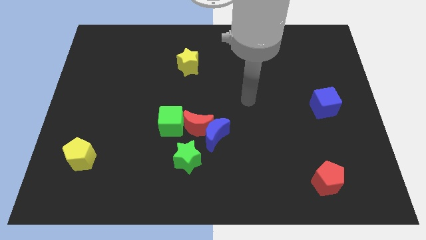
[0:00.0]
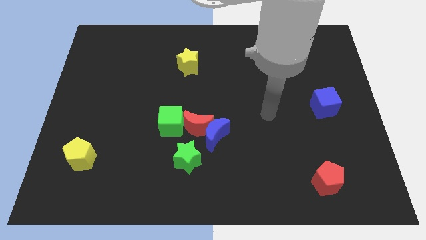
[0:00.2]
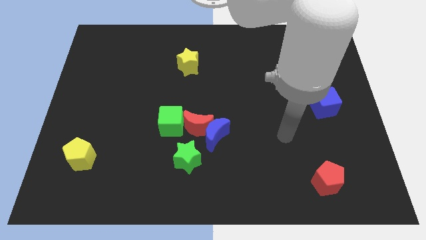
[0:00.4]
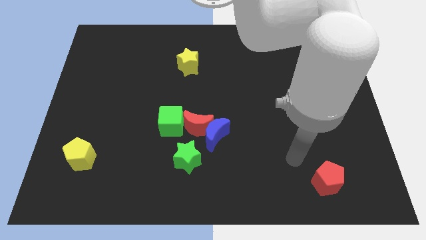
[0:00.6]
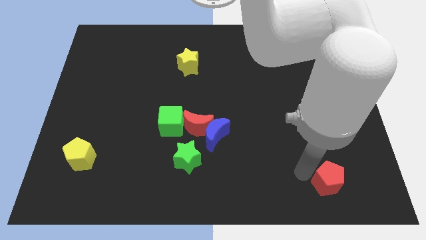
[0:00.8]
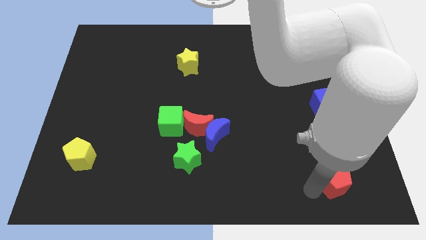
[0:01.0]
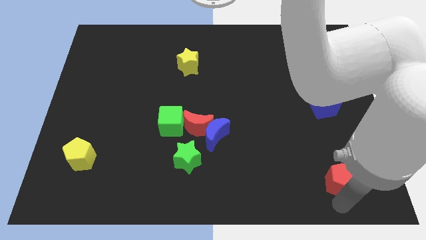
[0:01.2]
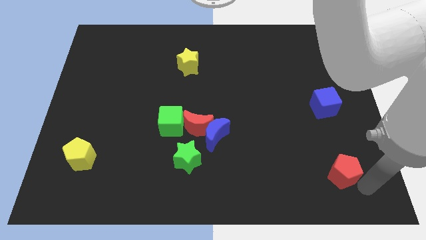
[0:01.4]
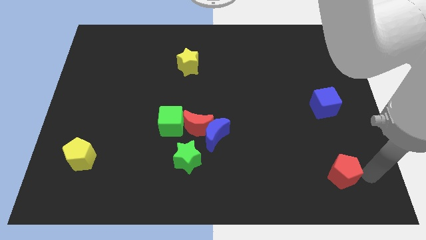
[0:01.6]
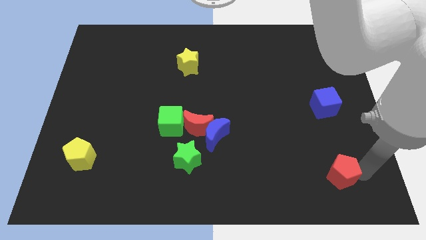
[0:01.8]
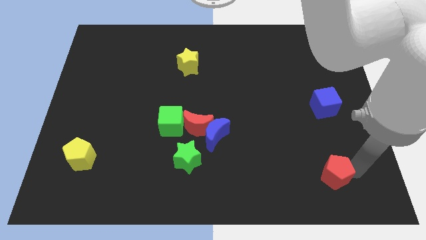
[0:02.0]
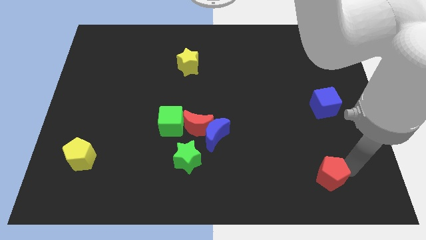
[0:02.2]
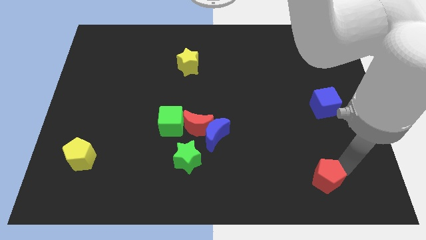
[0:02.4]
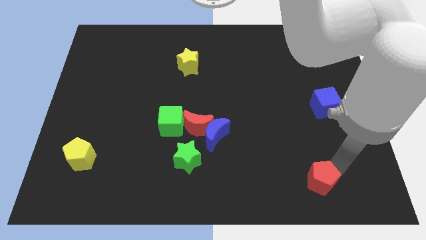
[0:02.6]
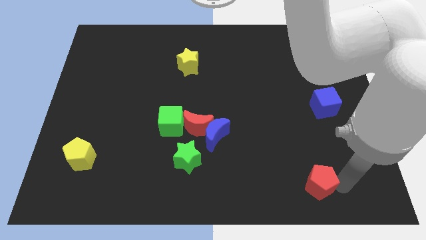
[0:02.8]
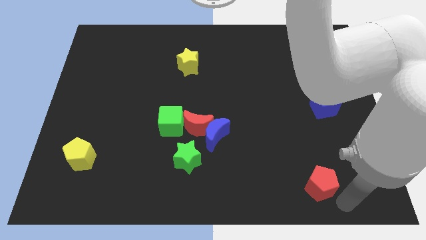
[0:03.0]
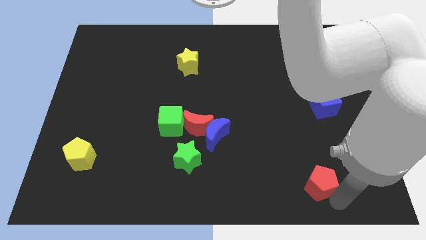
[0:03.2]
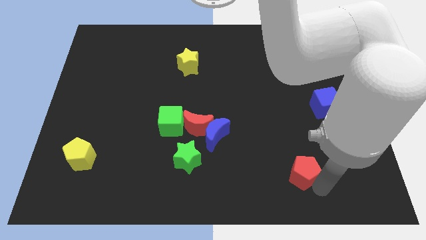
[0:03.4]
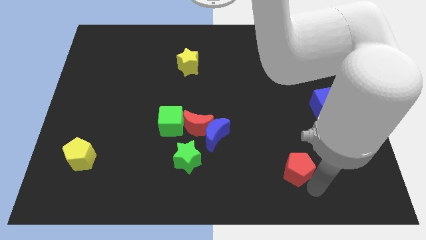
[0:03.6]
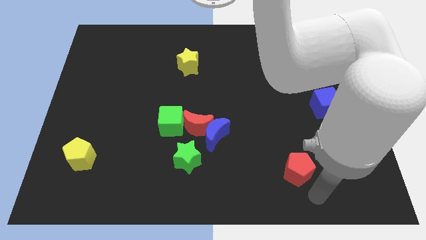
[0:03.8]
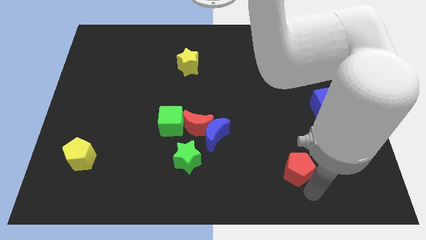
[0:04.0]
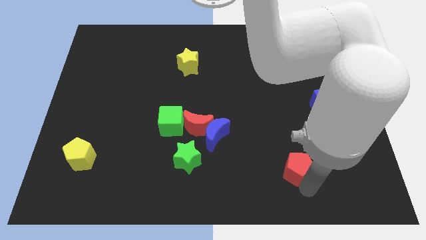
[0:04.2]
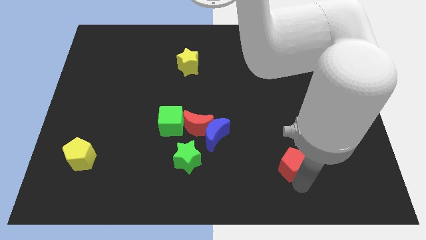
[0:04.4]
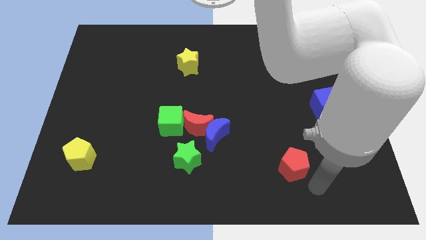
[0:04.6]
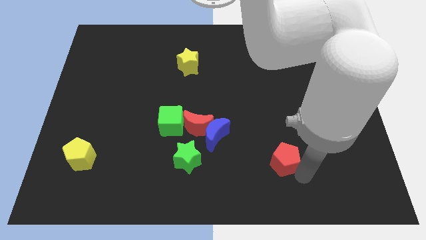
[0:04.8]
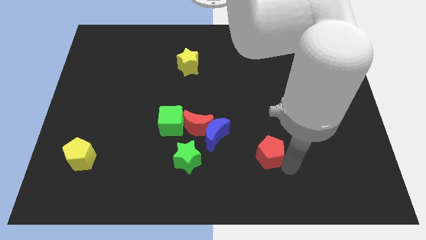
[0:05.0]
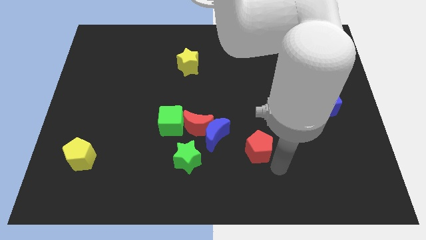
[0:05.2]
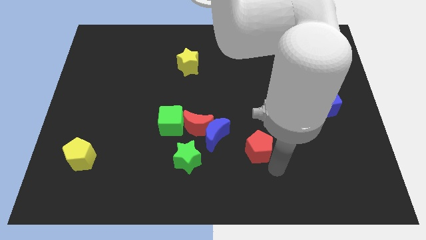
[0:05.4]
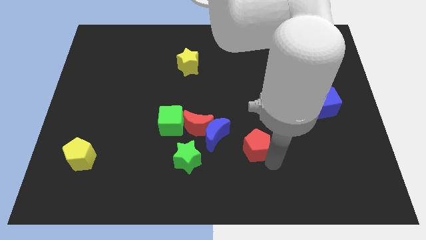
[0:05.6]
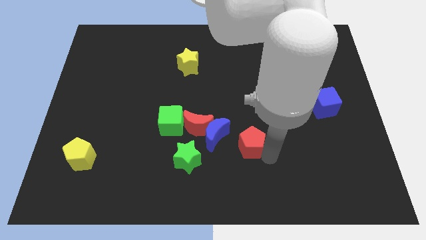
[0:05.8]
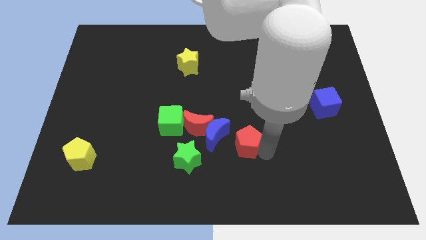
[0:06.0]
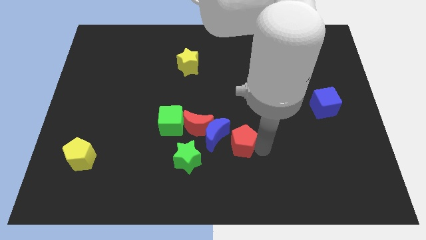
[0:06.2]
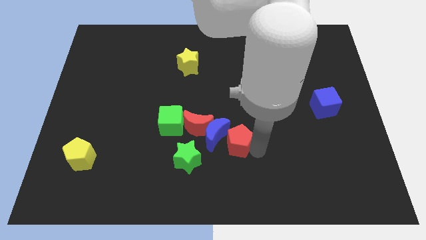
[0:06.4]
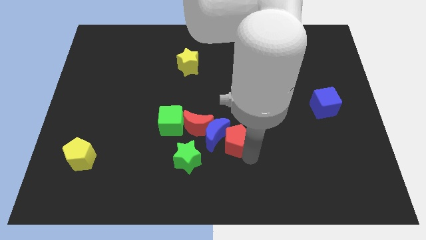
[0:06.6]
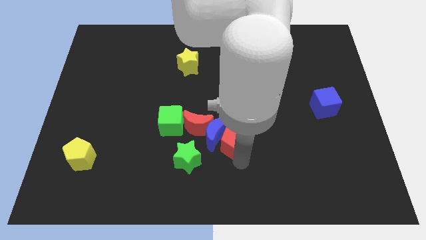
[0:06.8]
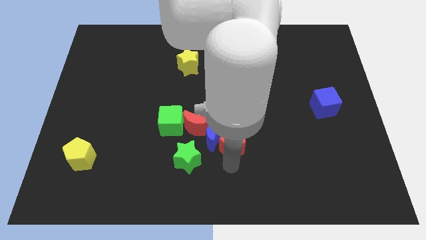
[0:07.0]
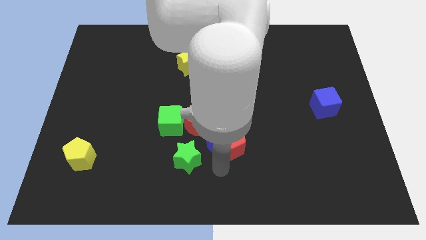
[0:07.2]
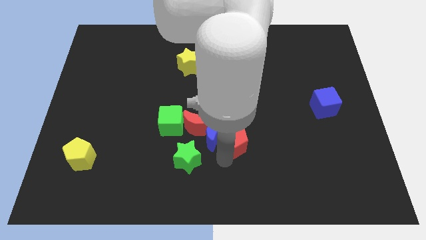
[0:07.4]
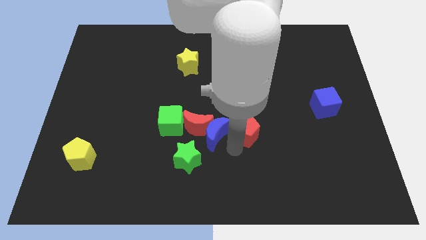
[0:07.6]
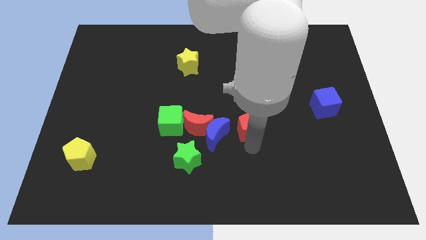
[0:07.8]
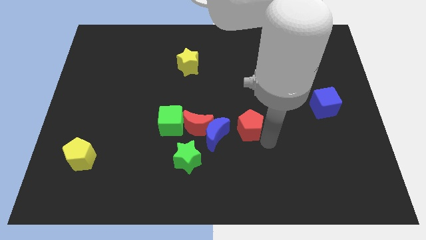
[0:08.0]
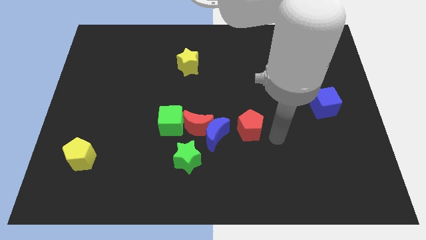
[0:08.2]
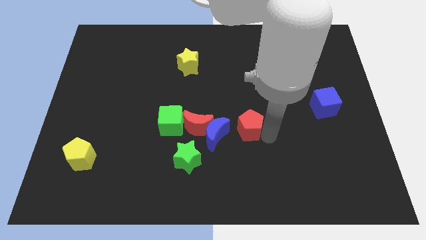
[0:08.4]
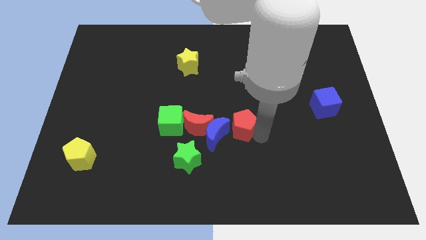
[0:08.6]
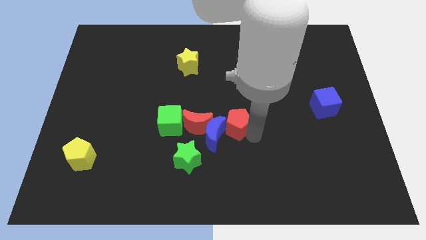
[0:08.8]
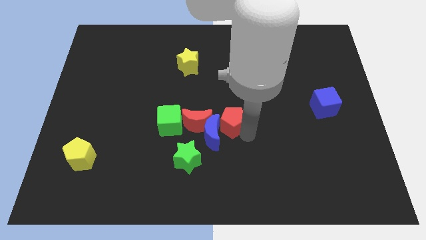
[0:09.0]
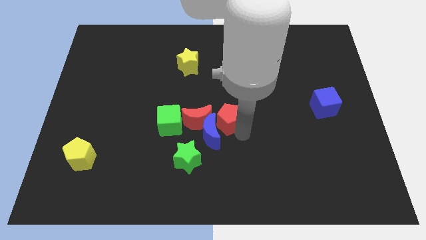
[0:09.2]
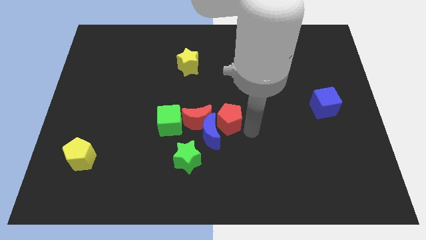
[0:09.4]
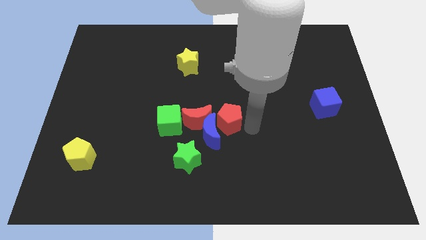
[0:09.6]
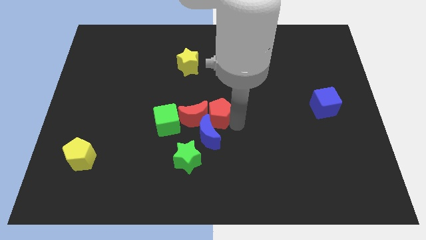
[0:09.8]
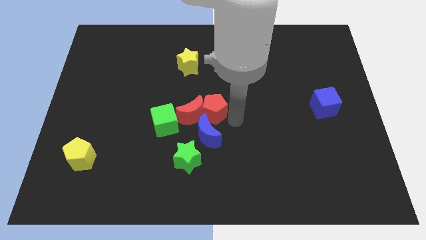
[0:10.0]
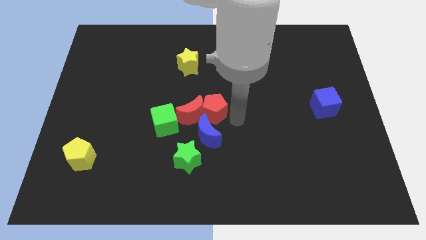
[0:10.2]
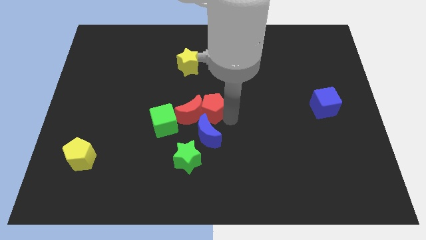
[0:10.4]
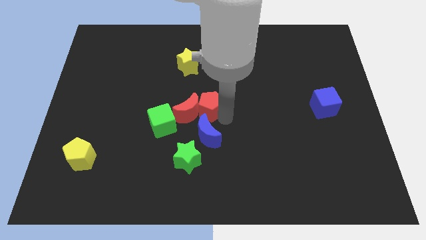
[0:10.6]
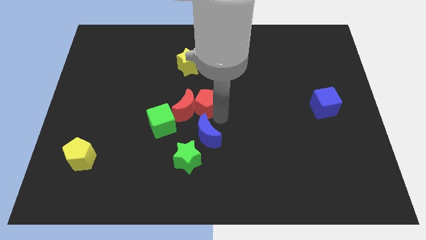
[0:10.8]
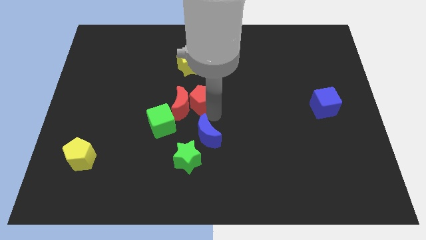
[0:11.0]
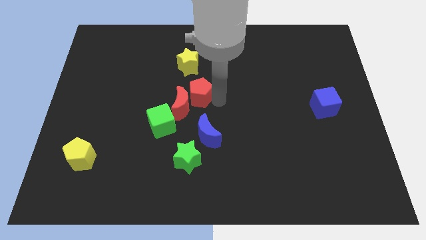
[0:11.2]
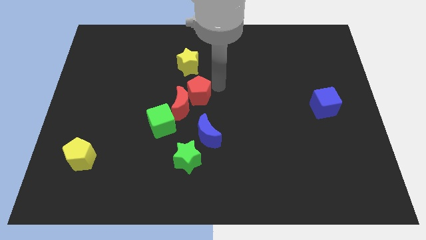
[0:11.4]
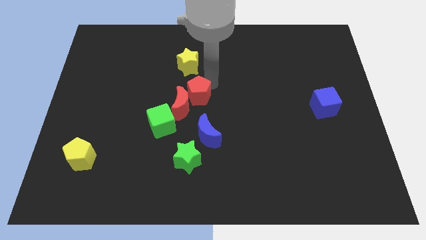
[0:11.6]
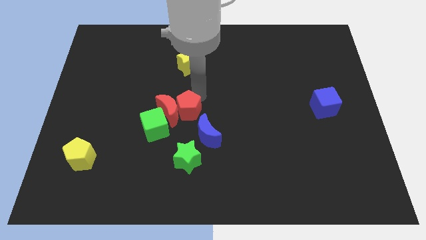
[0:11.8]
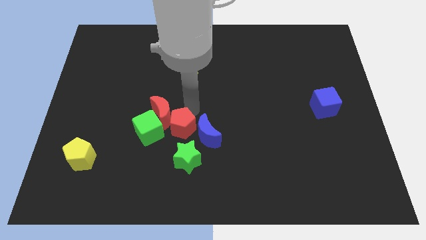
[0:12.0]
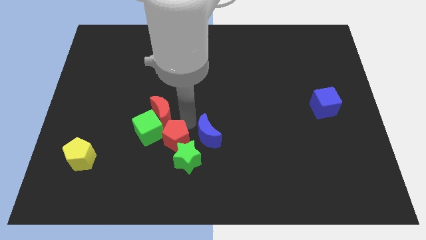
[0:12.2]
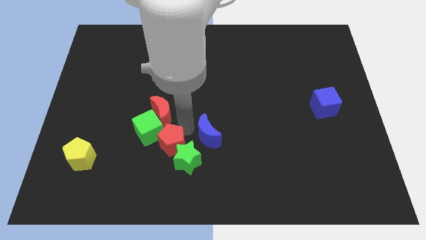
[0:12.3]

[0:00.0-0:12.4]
slide the red pentagon next to the green cube

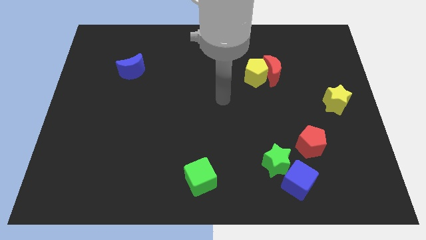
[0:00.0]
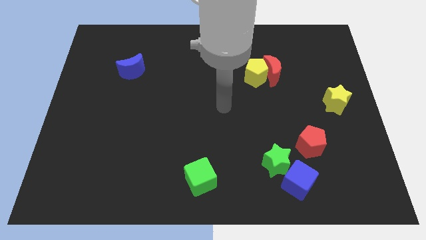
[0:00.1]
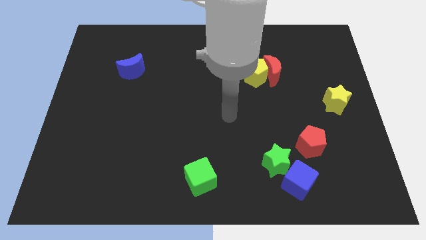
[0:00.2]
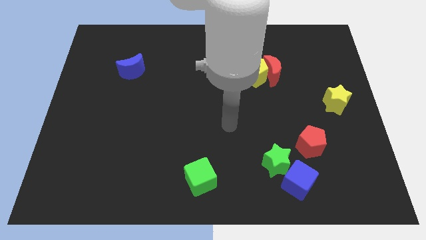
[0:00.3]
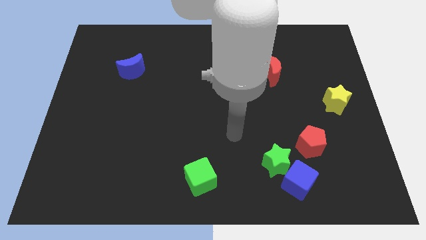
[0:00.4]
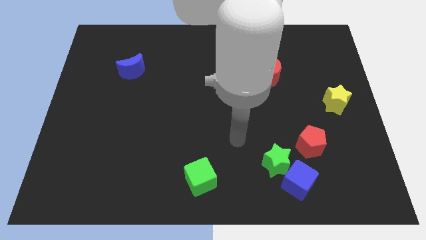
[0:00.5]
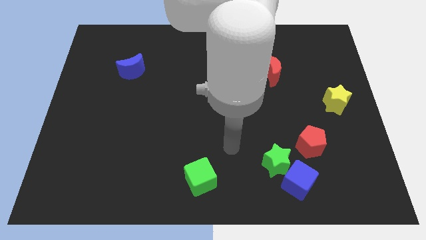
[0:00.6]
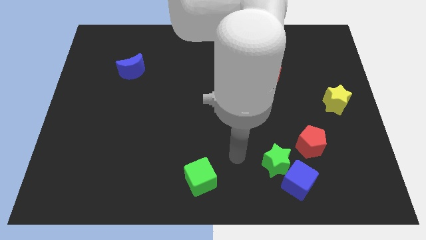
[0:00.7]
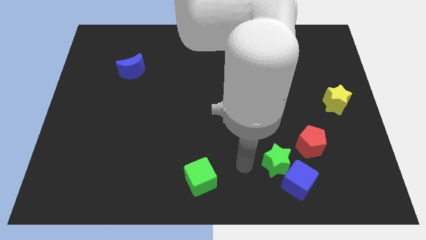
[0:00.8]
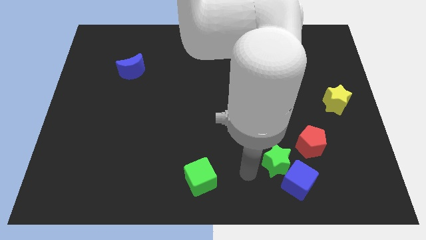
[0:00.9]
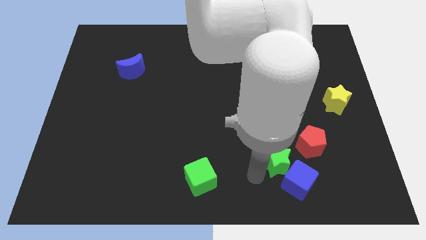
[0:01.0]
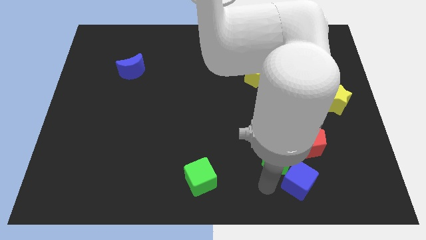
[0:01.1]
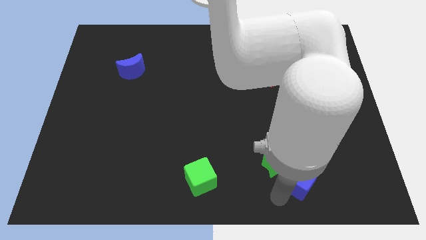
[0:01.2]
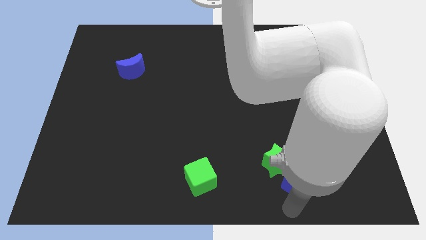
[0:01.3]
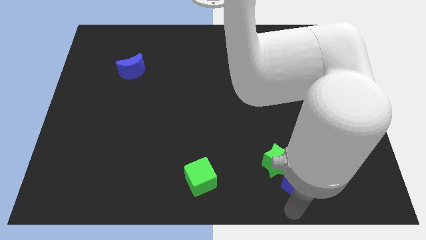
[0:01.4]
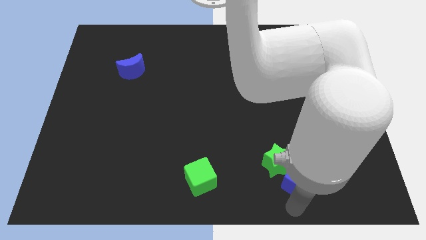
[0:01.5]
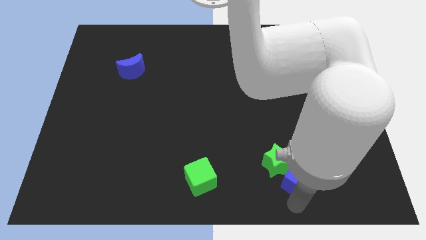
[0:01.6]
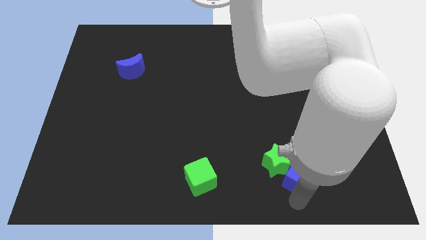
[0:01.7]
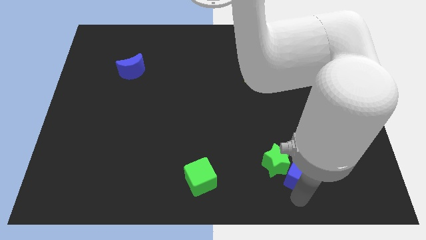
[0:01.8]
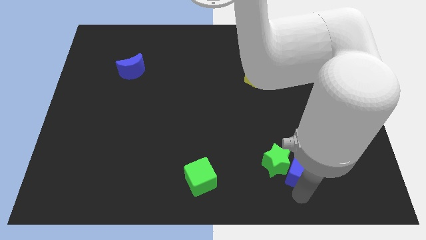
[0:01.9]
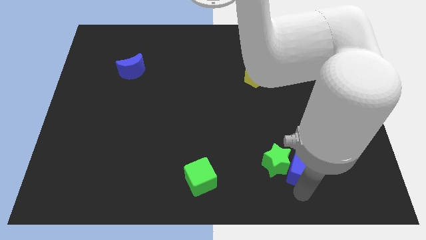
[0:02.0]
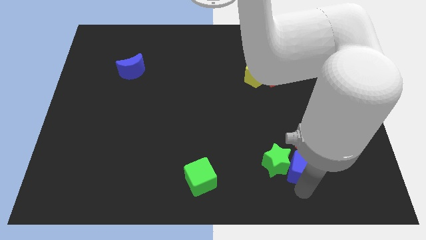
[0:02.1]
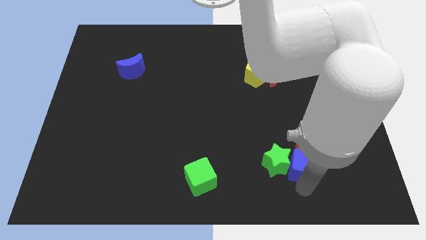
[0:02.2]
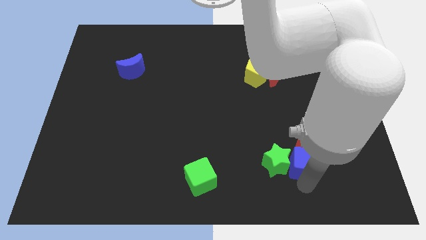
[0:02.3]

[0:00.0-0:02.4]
slide the blue cube close to the red pentagon
